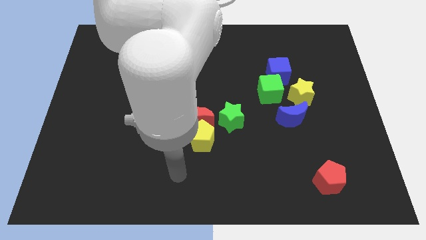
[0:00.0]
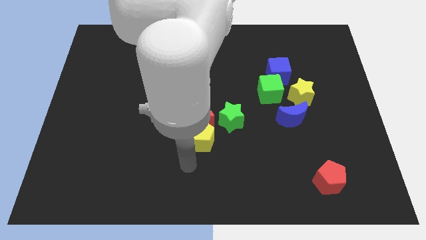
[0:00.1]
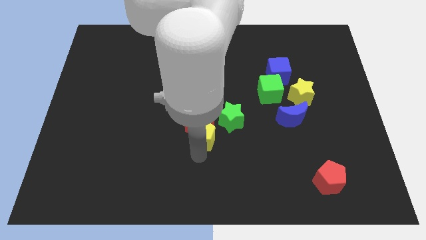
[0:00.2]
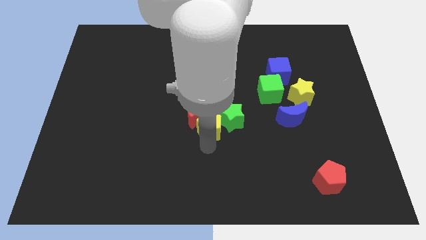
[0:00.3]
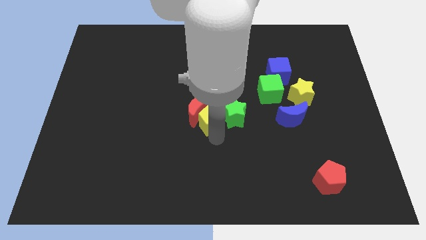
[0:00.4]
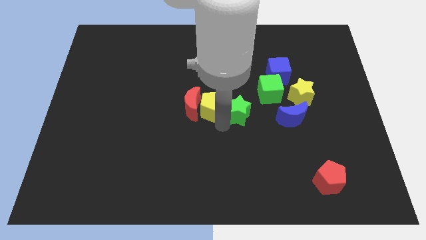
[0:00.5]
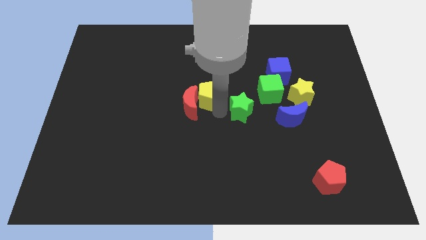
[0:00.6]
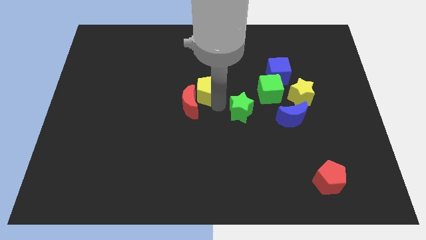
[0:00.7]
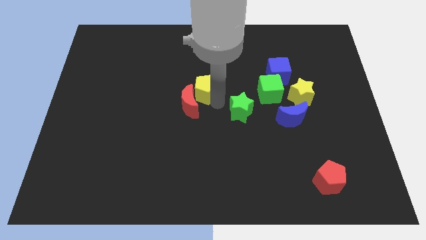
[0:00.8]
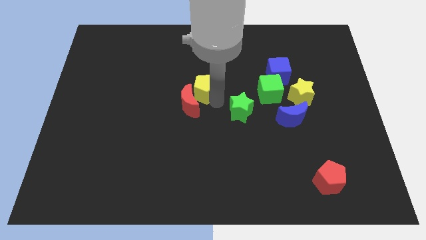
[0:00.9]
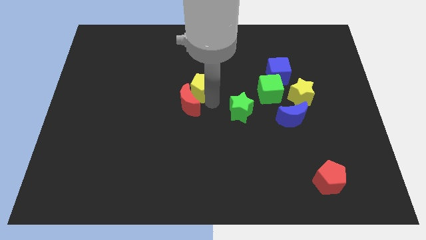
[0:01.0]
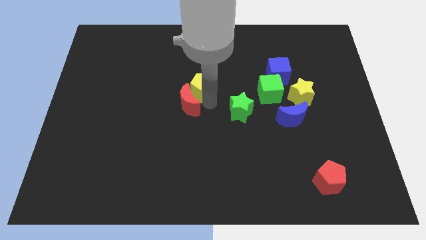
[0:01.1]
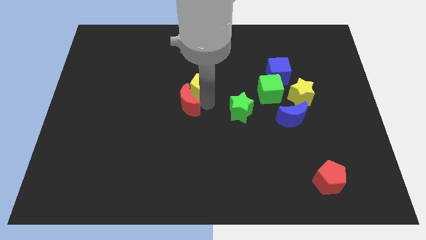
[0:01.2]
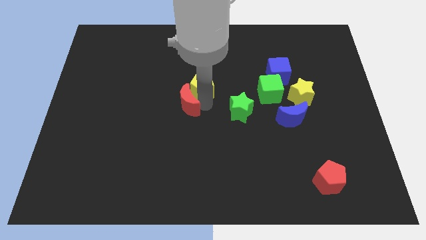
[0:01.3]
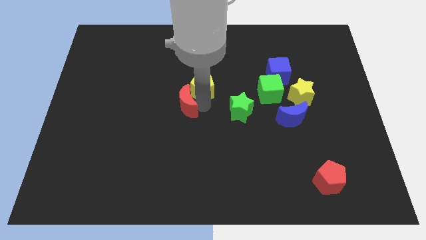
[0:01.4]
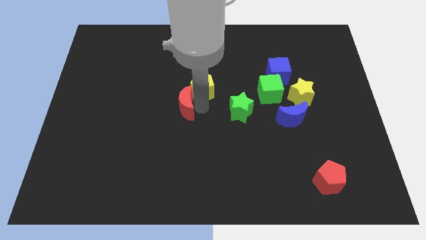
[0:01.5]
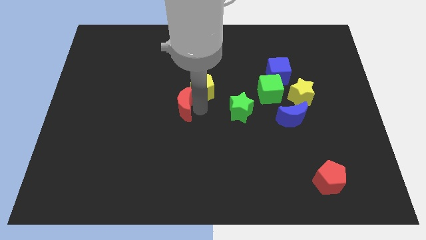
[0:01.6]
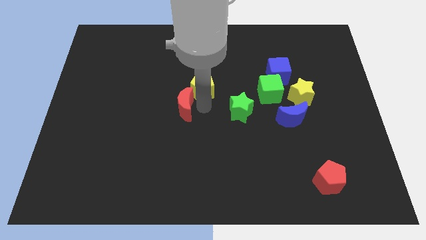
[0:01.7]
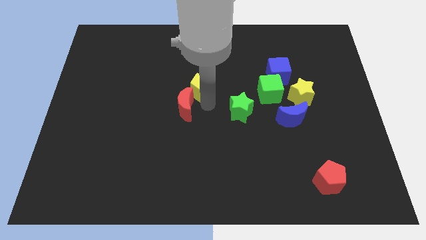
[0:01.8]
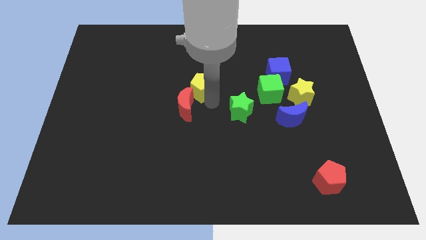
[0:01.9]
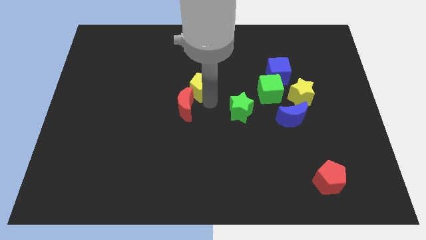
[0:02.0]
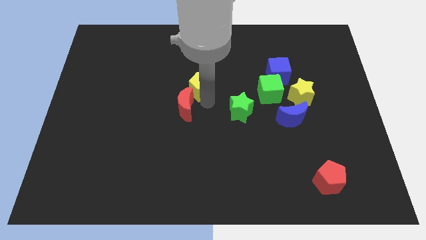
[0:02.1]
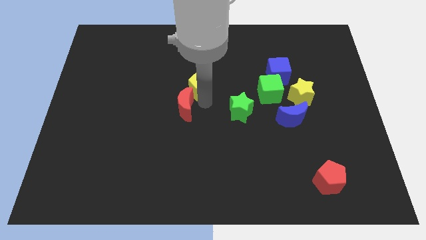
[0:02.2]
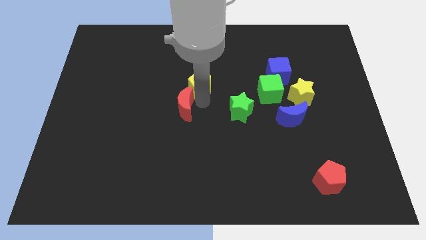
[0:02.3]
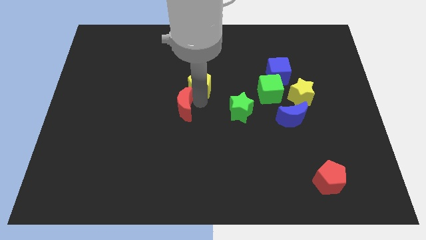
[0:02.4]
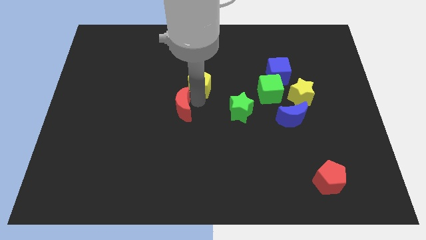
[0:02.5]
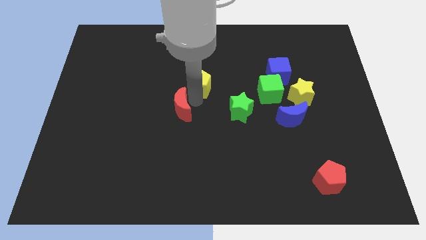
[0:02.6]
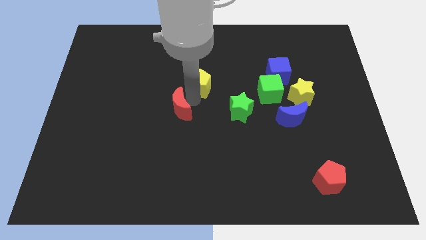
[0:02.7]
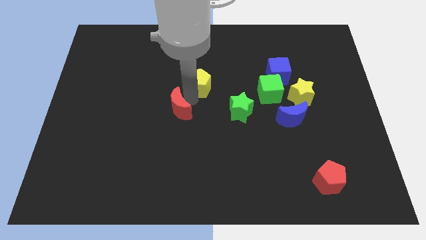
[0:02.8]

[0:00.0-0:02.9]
pull the red moon apart from the yellow pentagon and green star

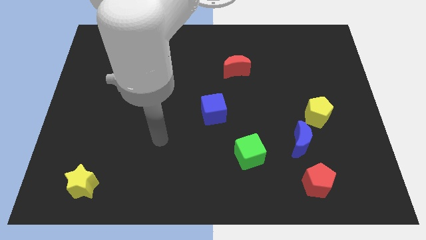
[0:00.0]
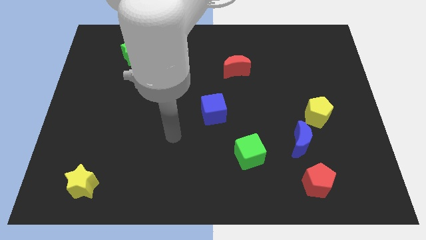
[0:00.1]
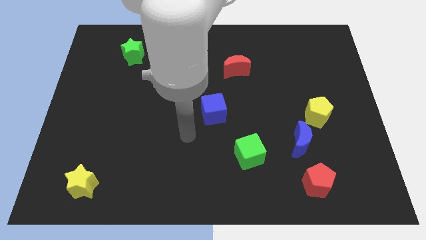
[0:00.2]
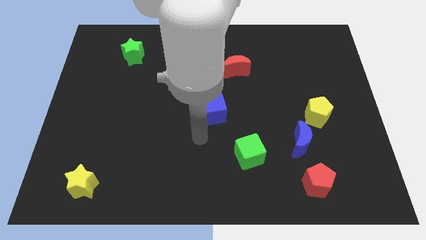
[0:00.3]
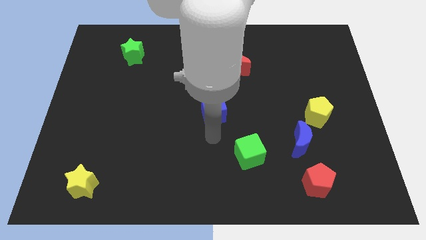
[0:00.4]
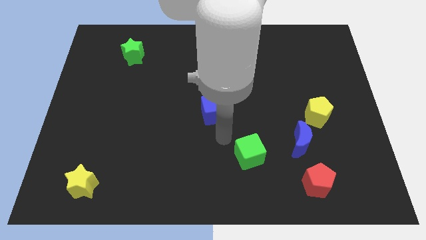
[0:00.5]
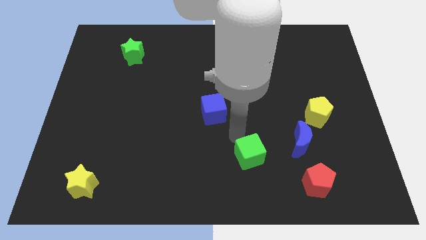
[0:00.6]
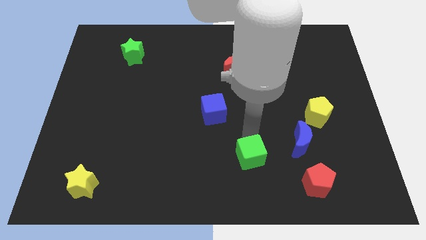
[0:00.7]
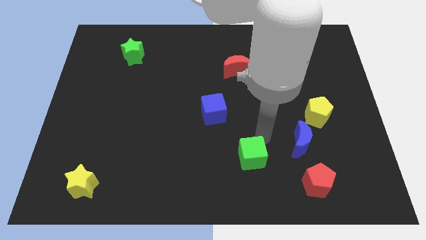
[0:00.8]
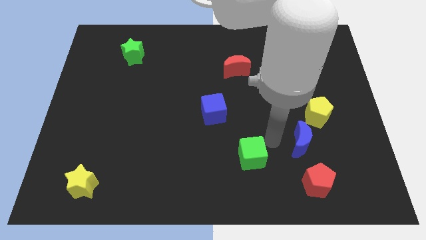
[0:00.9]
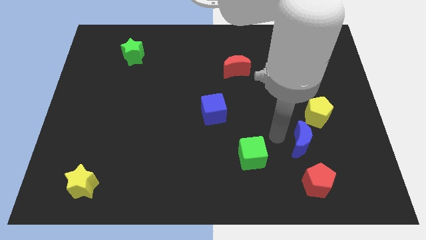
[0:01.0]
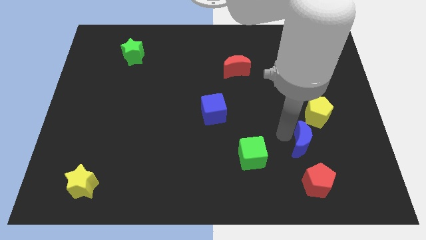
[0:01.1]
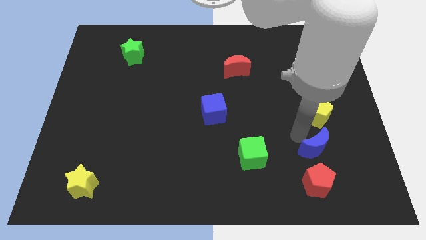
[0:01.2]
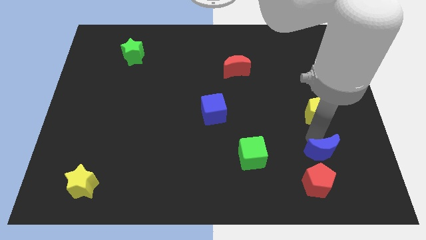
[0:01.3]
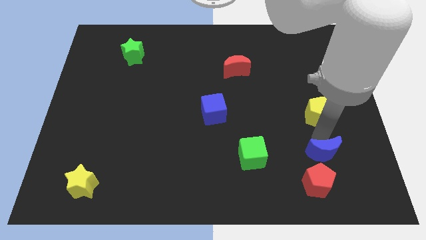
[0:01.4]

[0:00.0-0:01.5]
separate the yellow pentagon from the blue moon

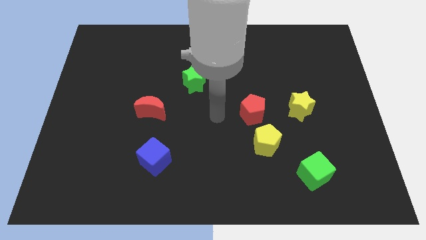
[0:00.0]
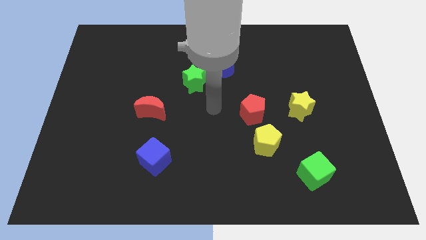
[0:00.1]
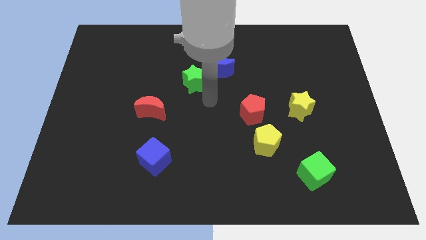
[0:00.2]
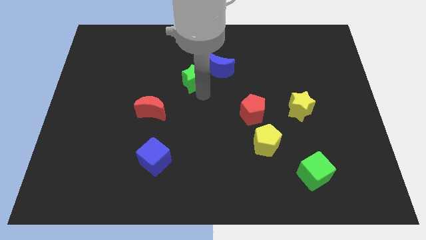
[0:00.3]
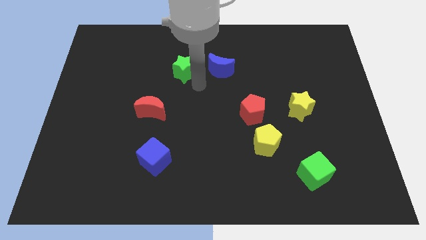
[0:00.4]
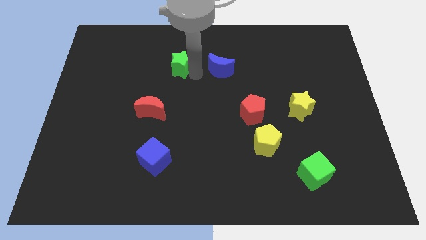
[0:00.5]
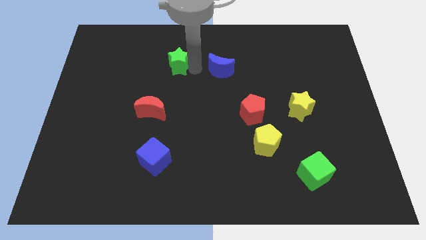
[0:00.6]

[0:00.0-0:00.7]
move the blue moon away from the green star

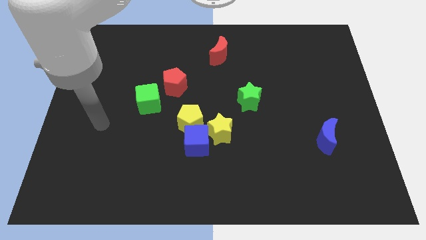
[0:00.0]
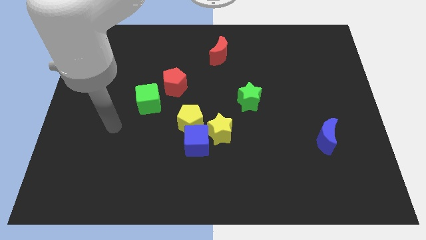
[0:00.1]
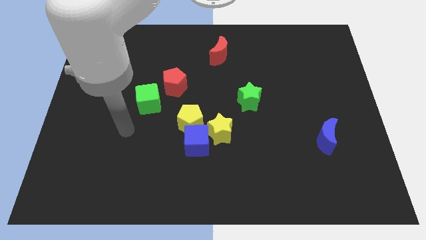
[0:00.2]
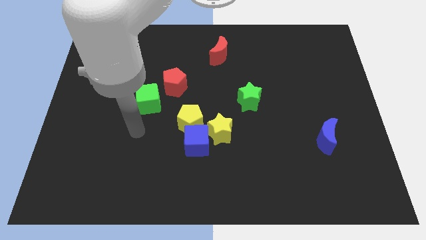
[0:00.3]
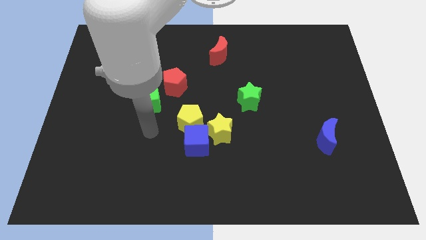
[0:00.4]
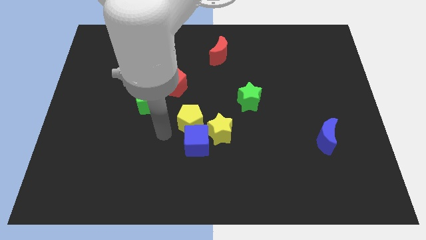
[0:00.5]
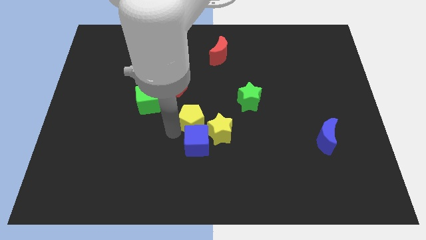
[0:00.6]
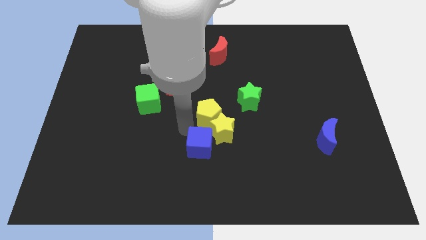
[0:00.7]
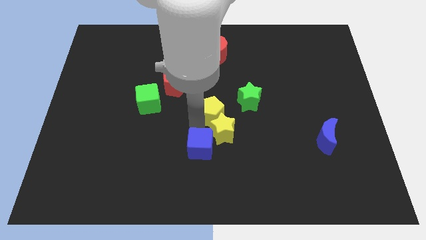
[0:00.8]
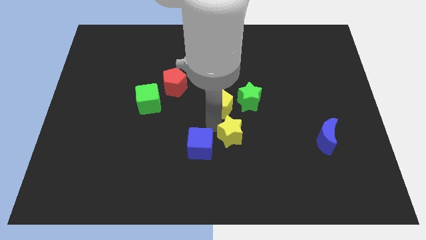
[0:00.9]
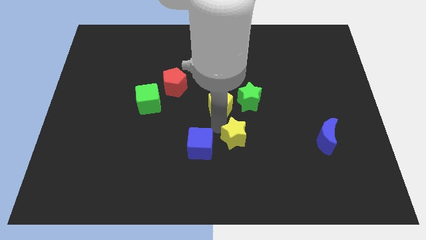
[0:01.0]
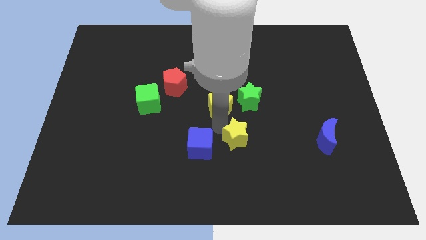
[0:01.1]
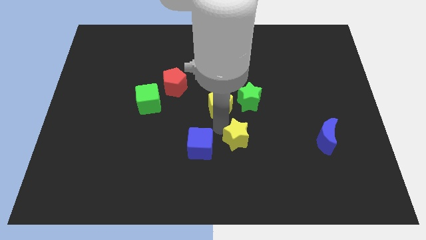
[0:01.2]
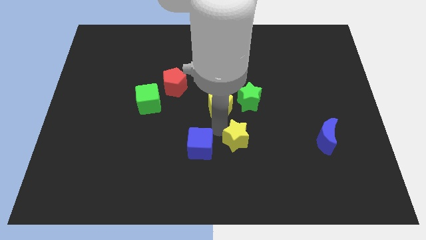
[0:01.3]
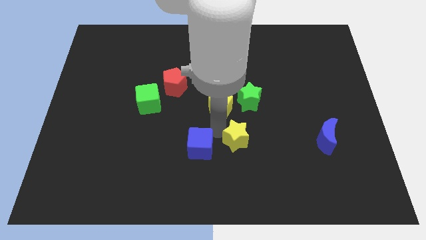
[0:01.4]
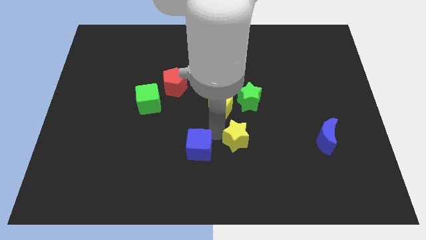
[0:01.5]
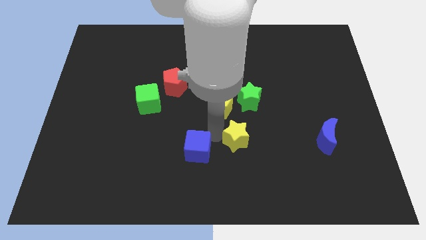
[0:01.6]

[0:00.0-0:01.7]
move the blue cube away from the yellow pentagon and yellow star

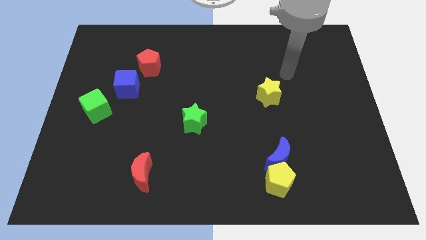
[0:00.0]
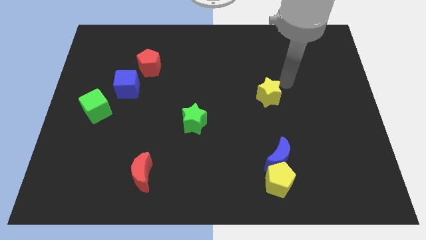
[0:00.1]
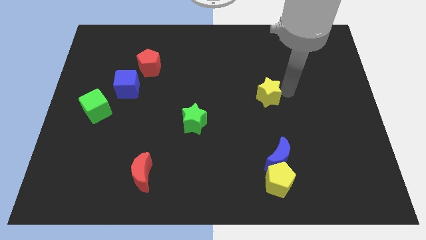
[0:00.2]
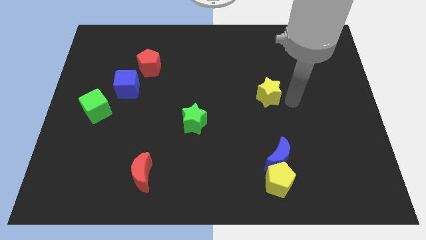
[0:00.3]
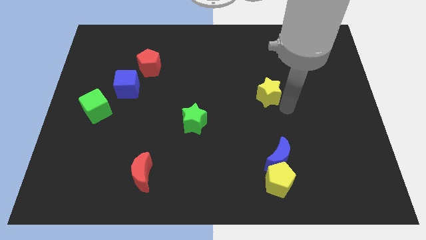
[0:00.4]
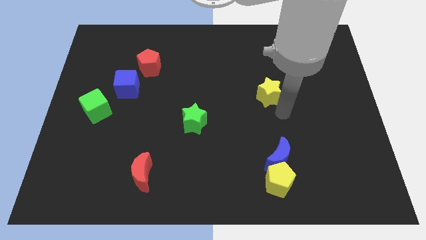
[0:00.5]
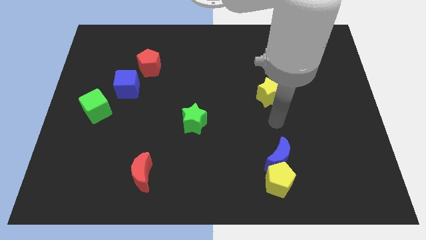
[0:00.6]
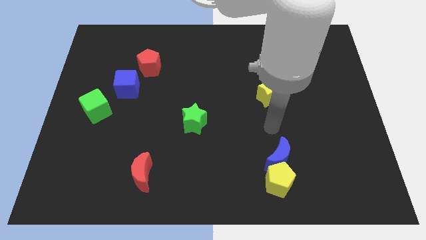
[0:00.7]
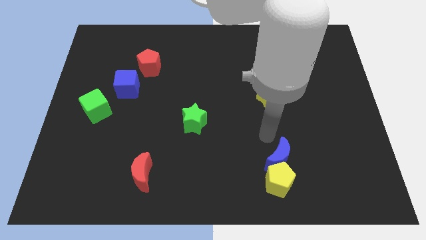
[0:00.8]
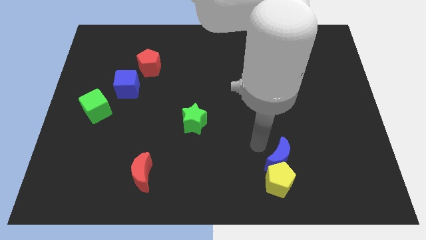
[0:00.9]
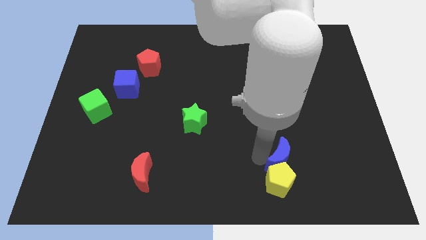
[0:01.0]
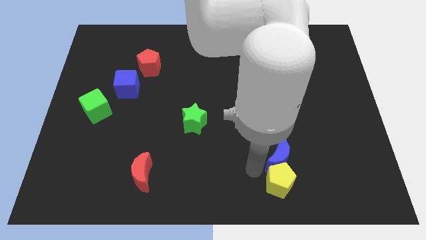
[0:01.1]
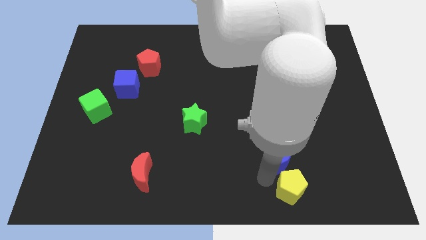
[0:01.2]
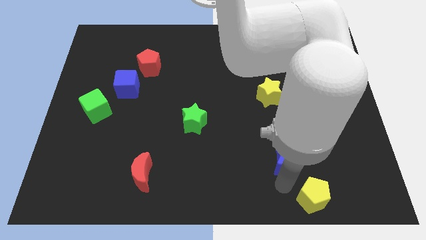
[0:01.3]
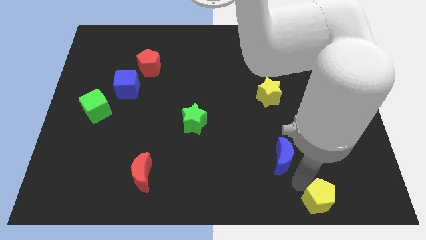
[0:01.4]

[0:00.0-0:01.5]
pull the blue moon apart from the yellow pentagon

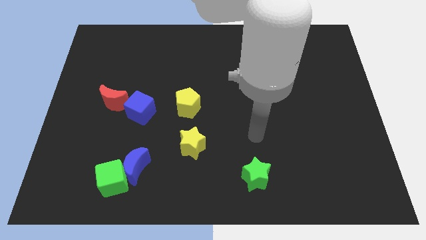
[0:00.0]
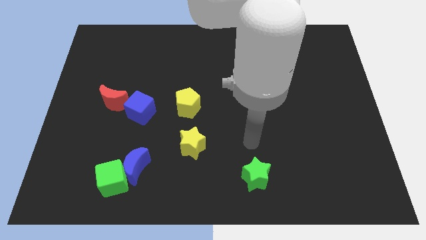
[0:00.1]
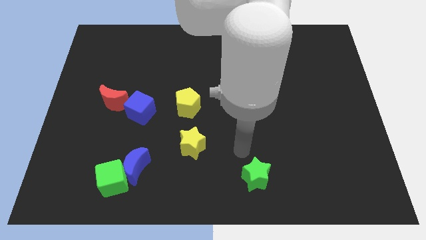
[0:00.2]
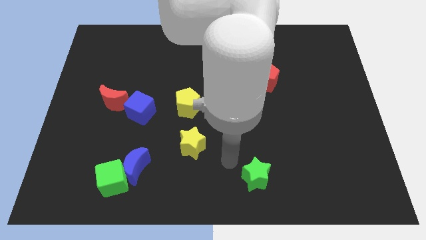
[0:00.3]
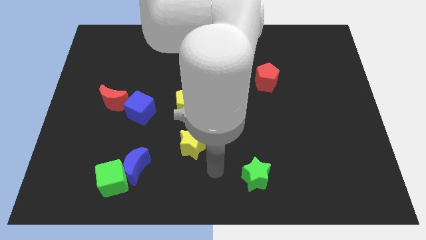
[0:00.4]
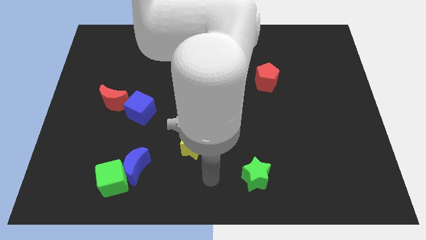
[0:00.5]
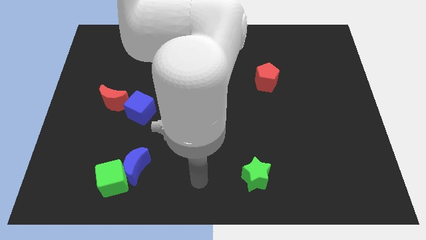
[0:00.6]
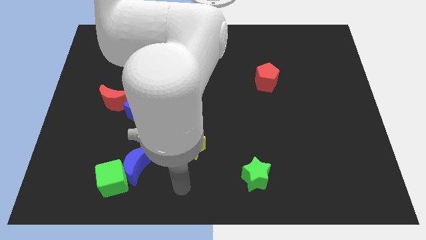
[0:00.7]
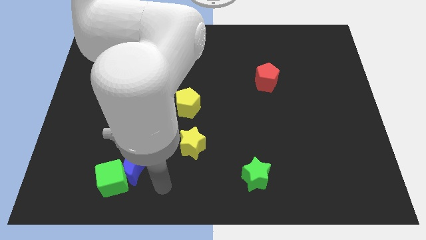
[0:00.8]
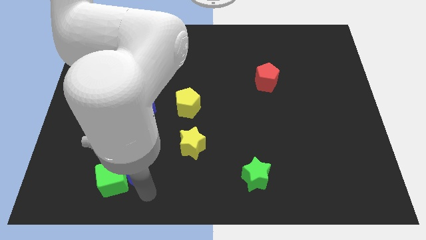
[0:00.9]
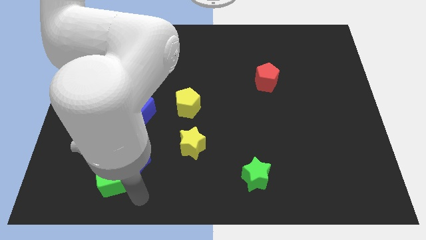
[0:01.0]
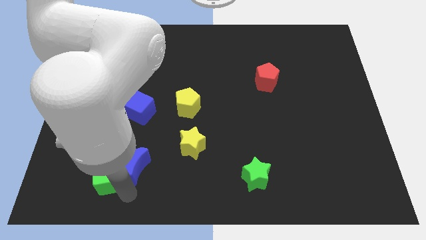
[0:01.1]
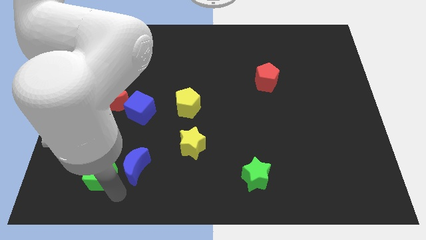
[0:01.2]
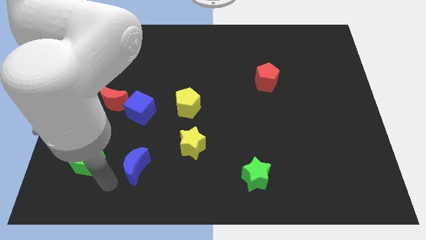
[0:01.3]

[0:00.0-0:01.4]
pull the blue moon apart from the green cube
